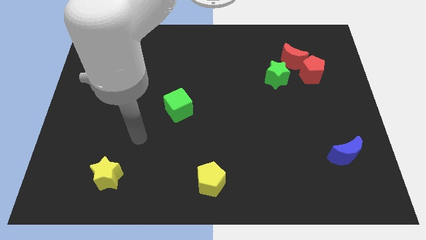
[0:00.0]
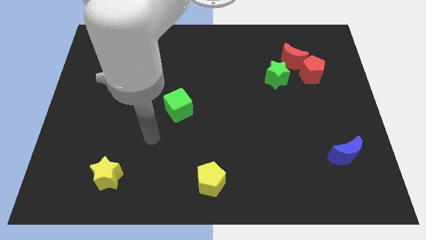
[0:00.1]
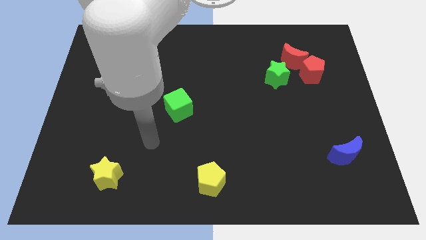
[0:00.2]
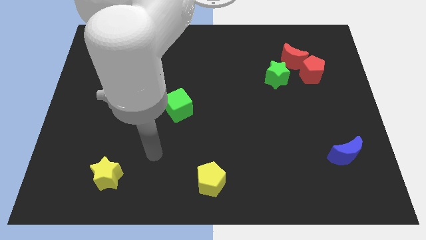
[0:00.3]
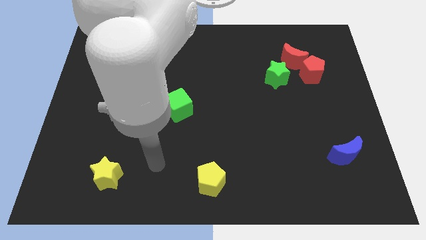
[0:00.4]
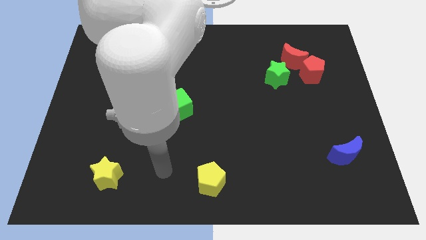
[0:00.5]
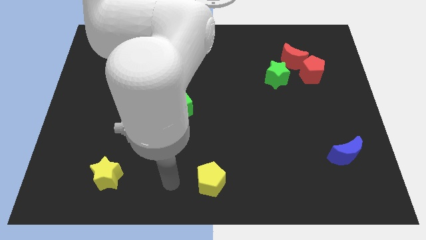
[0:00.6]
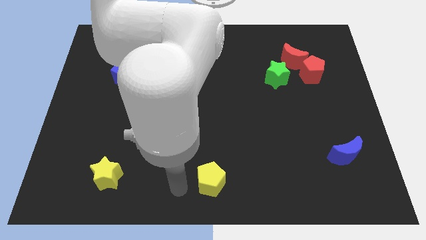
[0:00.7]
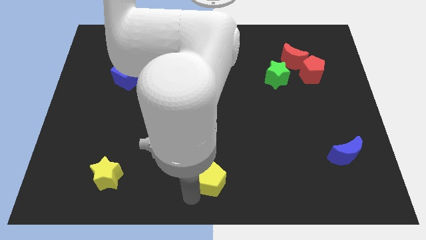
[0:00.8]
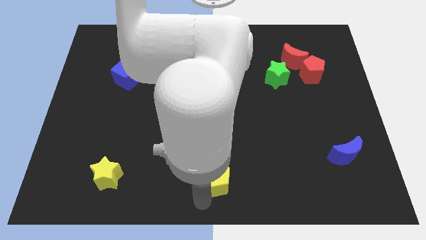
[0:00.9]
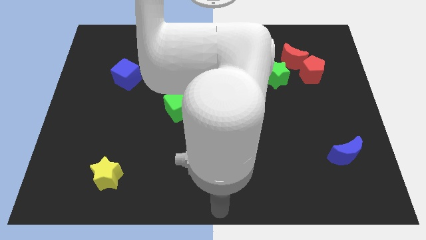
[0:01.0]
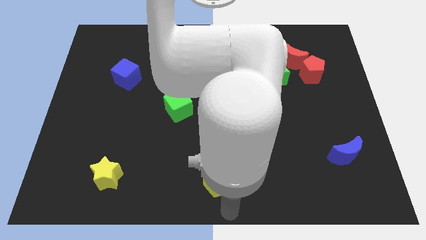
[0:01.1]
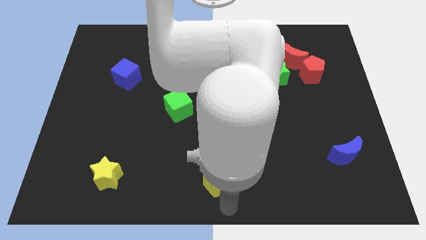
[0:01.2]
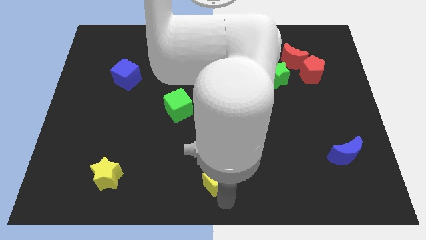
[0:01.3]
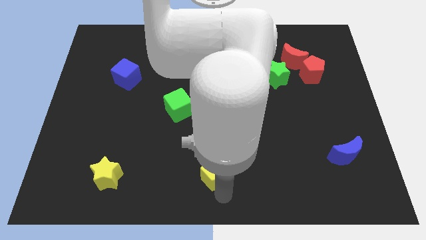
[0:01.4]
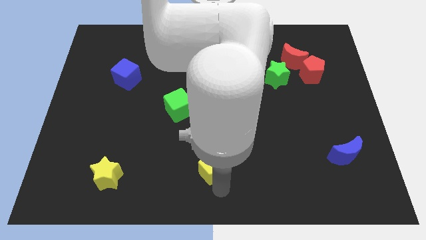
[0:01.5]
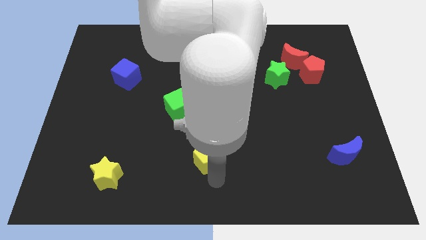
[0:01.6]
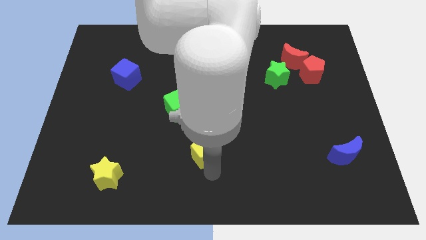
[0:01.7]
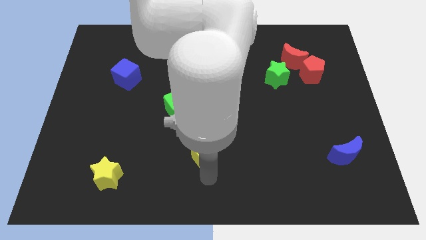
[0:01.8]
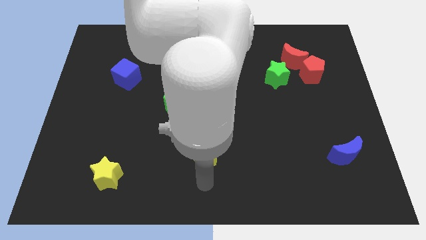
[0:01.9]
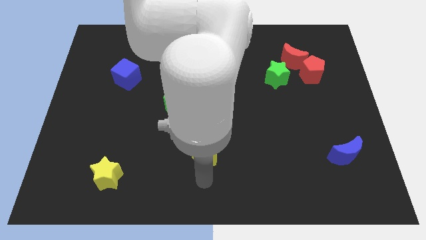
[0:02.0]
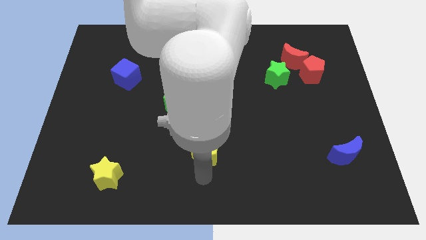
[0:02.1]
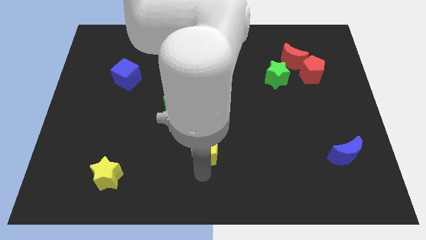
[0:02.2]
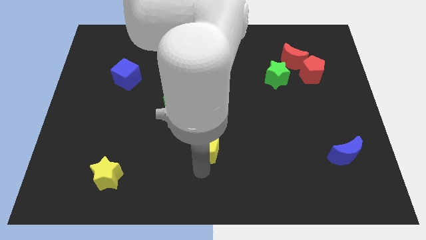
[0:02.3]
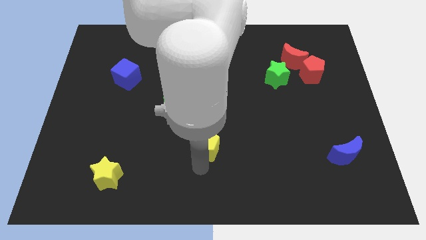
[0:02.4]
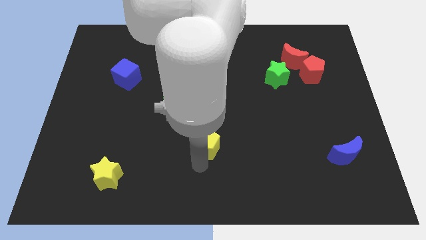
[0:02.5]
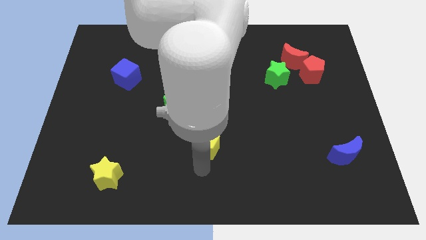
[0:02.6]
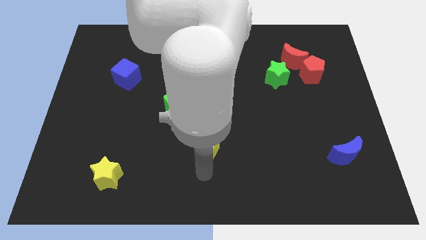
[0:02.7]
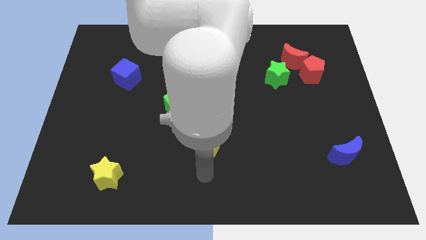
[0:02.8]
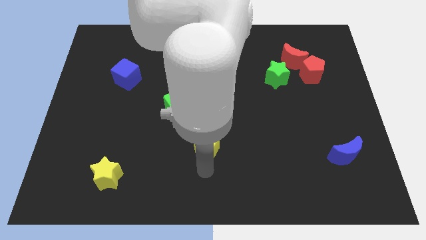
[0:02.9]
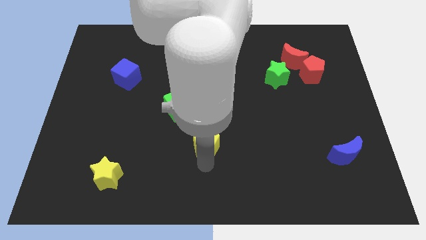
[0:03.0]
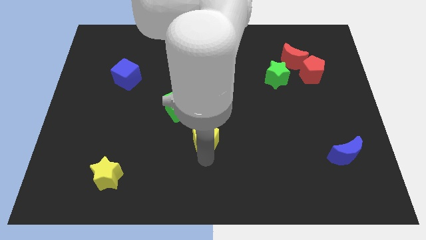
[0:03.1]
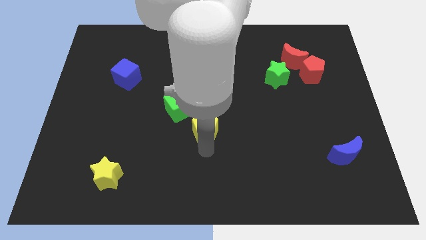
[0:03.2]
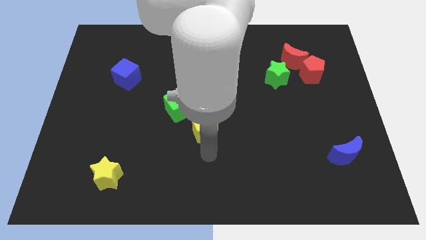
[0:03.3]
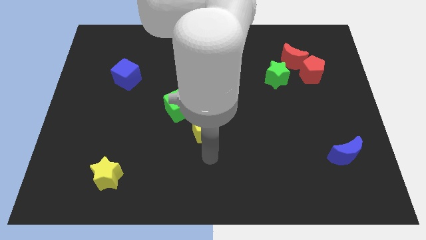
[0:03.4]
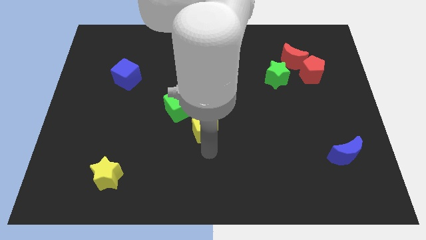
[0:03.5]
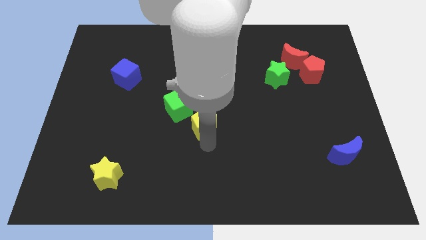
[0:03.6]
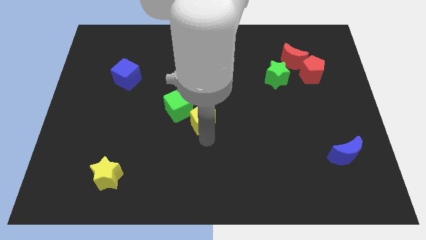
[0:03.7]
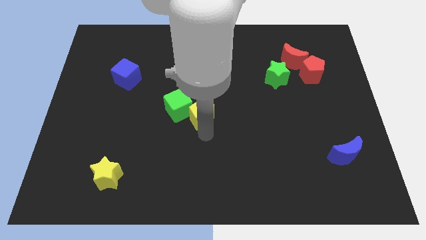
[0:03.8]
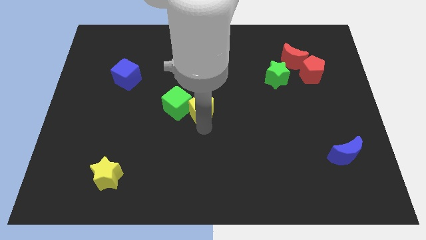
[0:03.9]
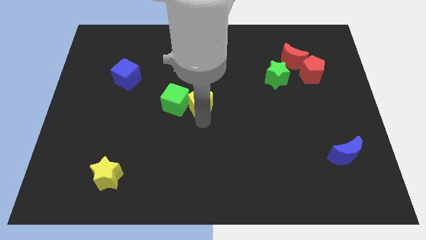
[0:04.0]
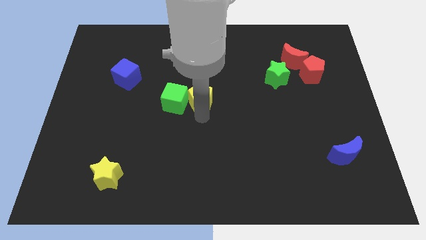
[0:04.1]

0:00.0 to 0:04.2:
move the yellow pentagon upwards

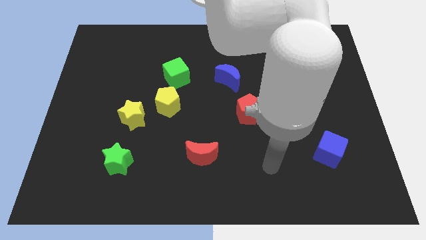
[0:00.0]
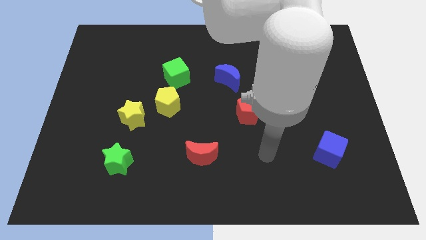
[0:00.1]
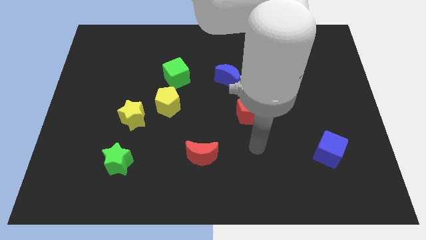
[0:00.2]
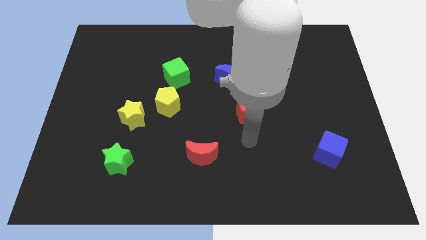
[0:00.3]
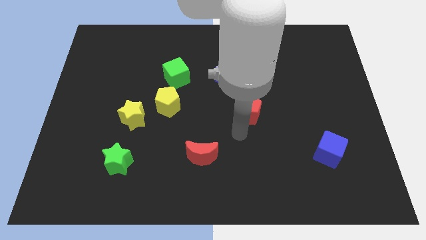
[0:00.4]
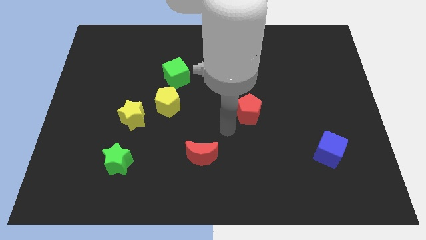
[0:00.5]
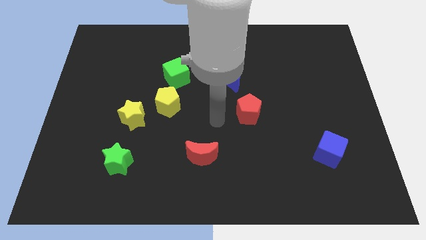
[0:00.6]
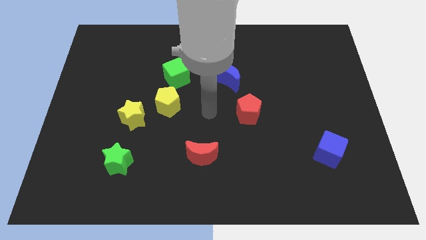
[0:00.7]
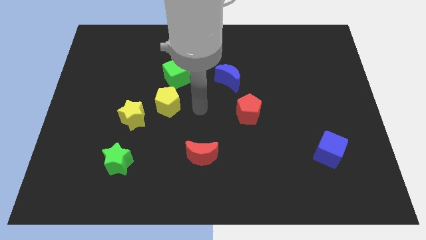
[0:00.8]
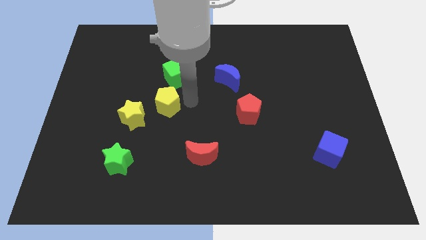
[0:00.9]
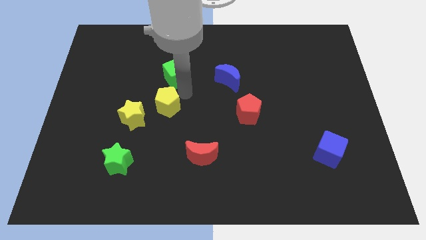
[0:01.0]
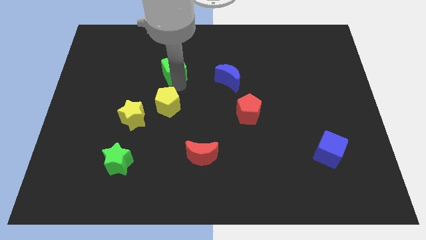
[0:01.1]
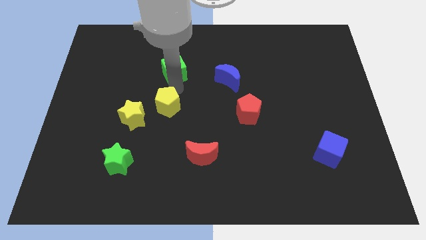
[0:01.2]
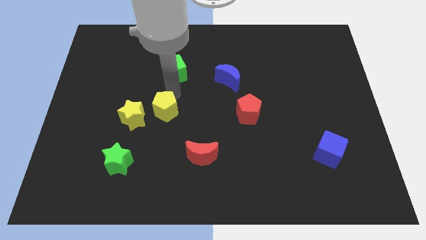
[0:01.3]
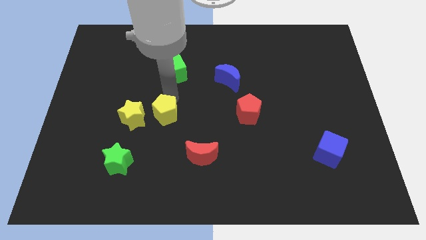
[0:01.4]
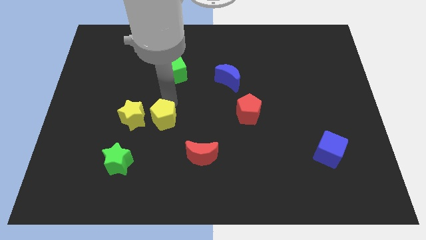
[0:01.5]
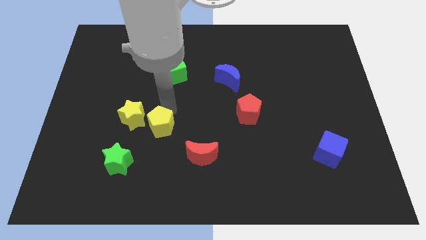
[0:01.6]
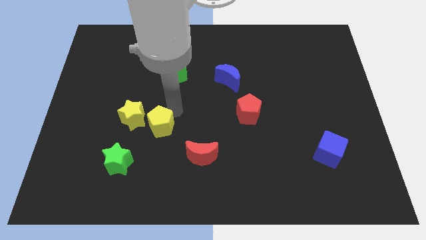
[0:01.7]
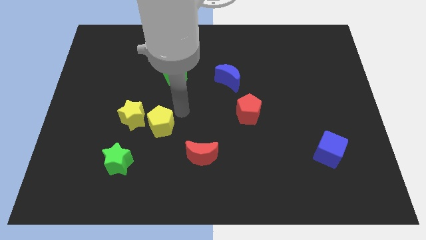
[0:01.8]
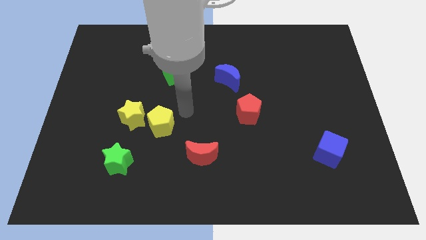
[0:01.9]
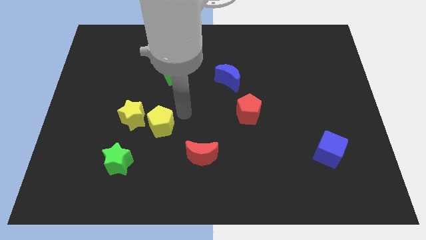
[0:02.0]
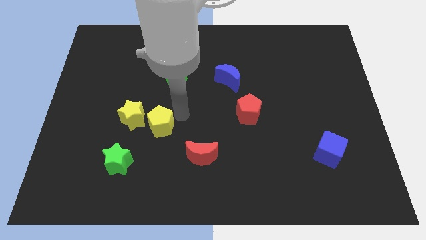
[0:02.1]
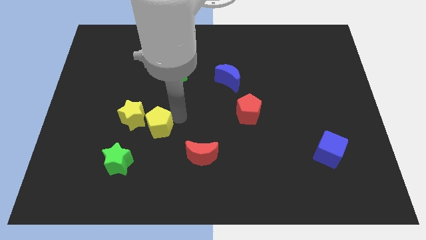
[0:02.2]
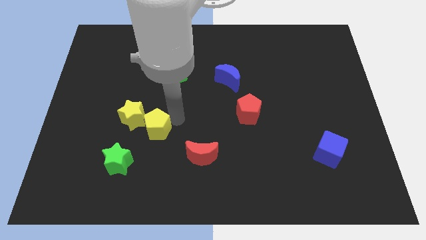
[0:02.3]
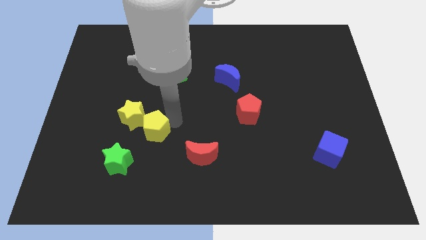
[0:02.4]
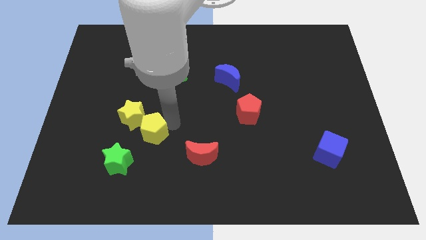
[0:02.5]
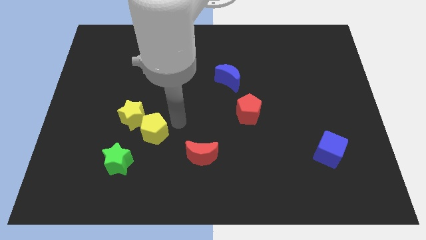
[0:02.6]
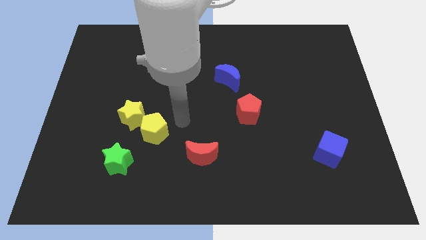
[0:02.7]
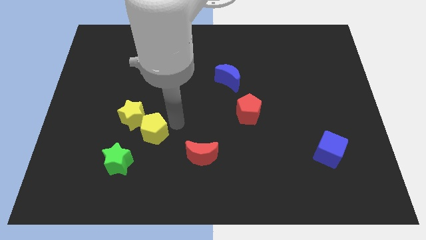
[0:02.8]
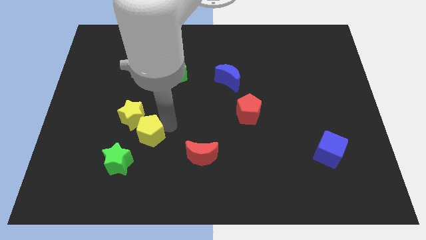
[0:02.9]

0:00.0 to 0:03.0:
slightly slide the yellow pentagon down and to the left diagonally

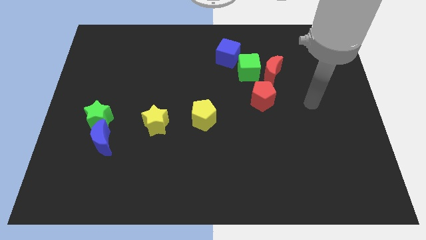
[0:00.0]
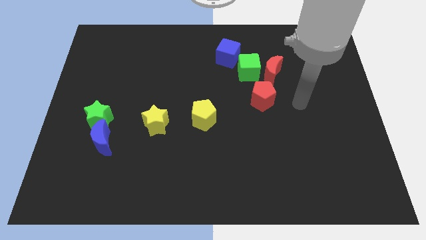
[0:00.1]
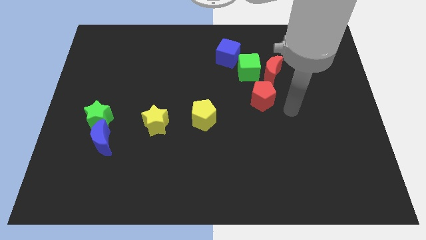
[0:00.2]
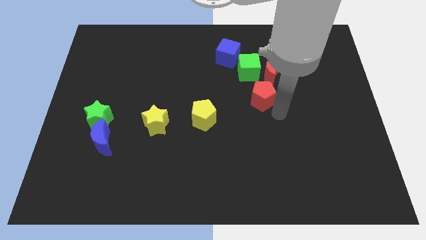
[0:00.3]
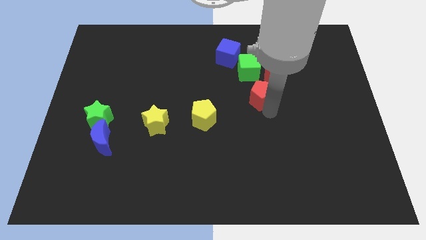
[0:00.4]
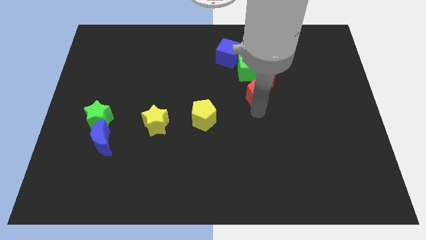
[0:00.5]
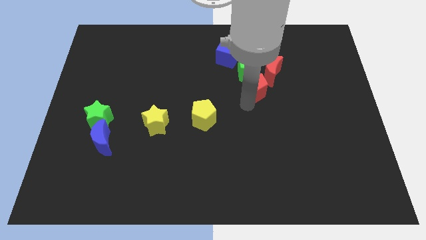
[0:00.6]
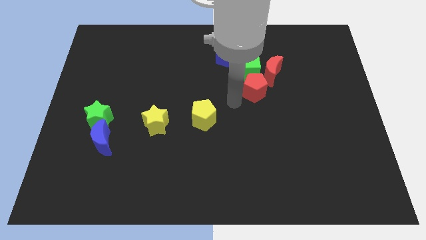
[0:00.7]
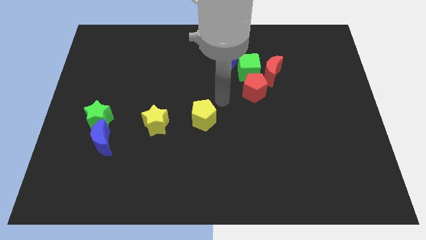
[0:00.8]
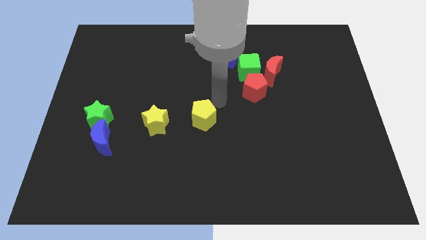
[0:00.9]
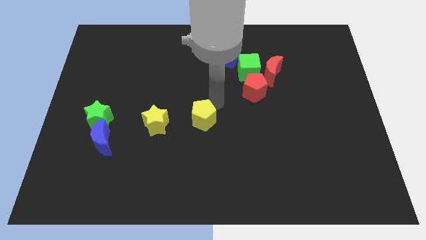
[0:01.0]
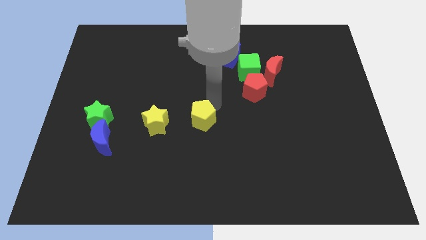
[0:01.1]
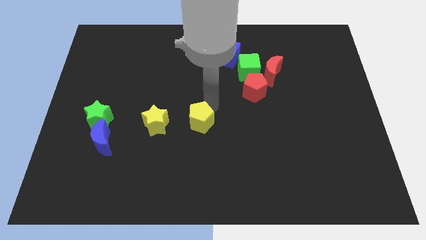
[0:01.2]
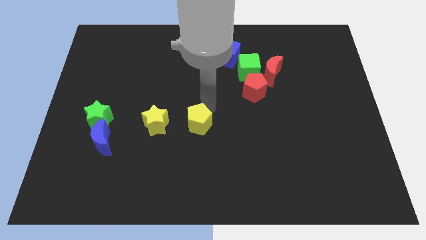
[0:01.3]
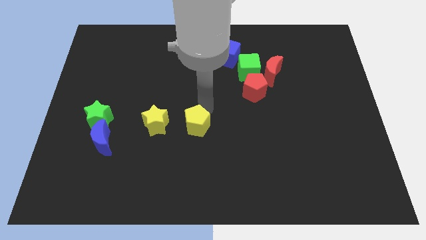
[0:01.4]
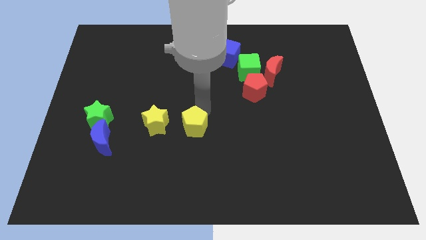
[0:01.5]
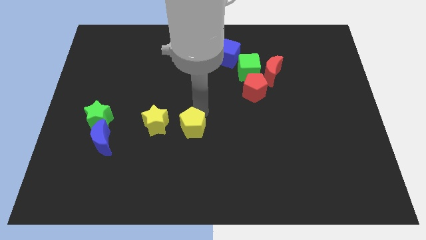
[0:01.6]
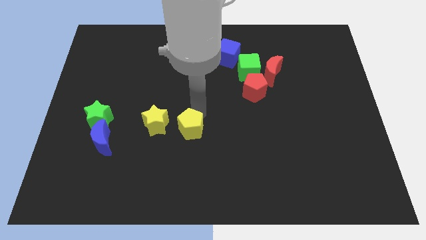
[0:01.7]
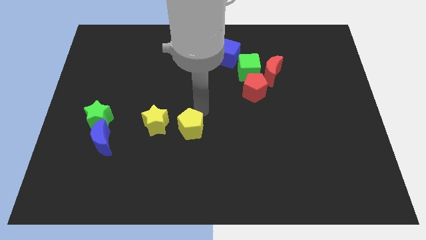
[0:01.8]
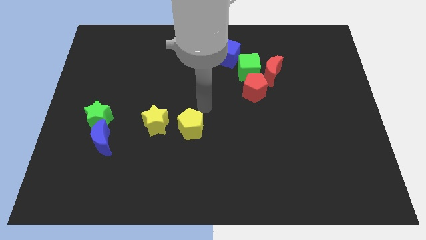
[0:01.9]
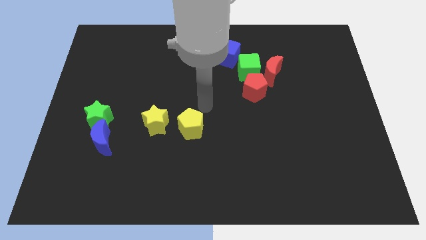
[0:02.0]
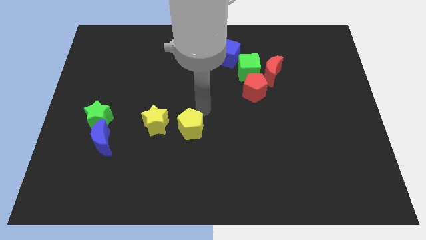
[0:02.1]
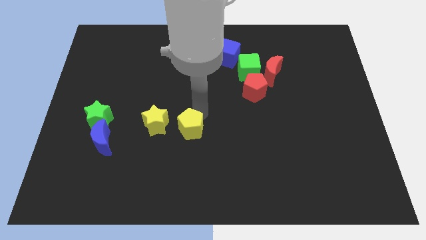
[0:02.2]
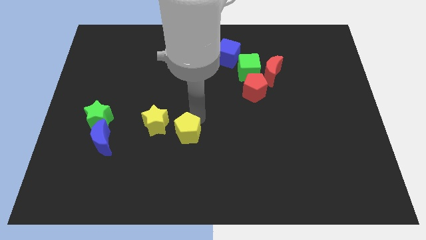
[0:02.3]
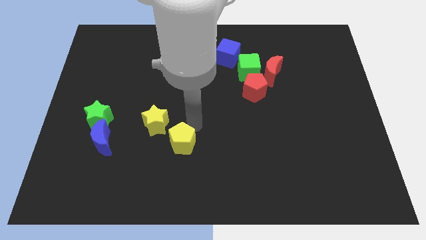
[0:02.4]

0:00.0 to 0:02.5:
slightly move the yellow pentagon downwards and left diagonally
